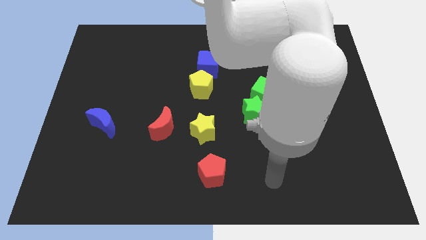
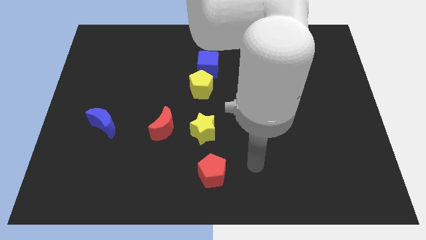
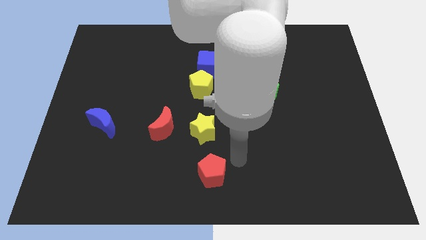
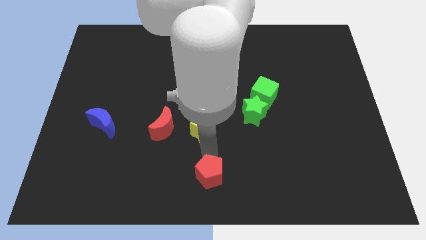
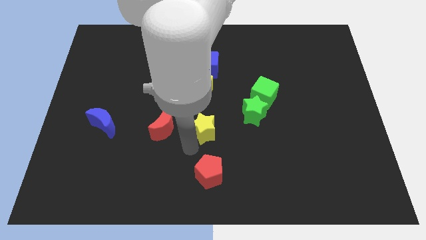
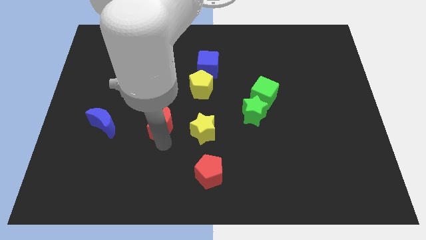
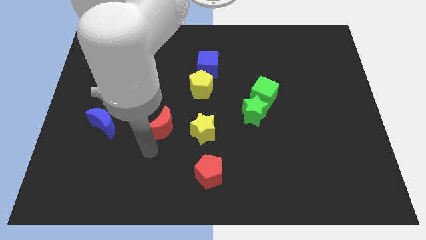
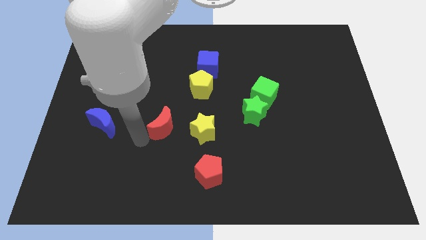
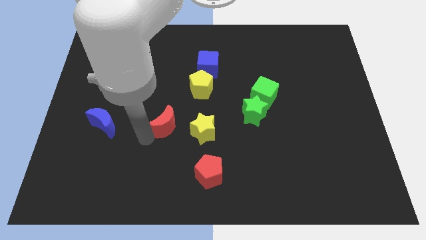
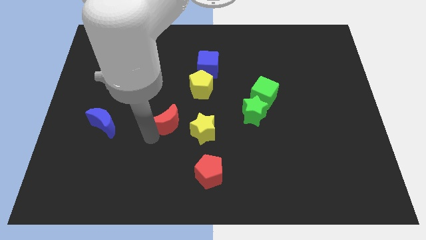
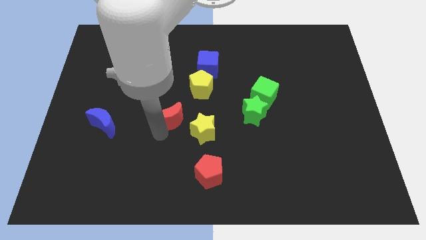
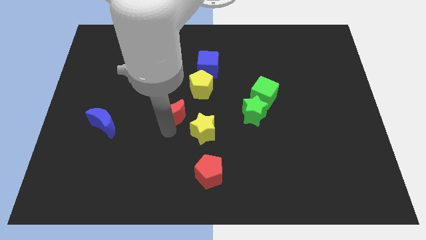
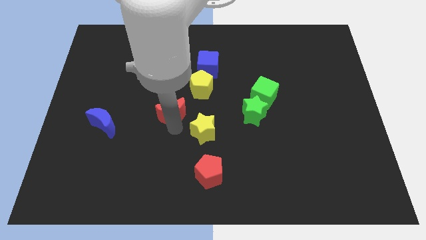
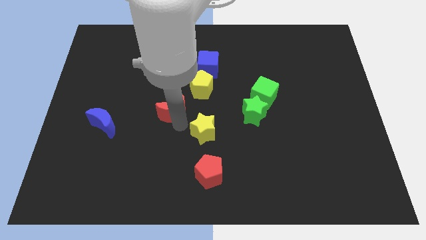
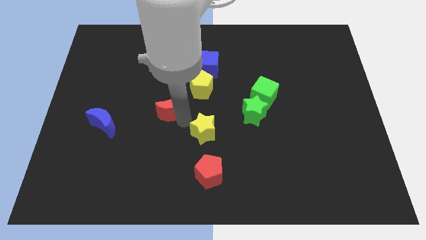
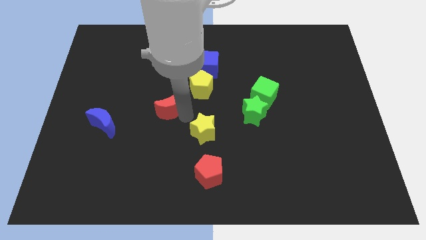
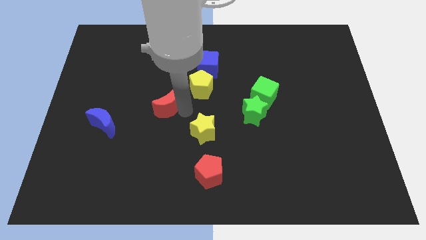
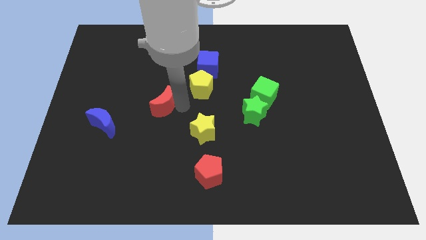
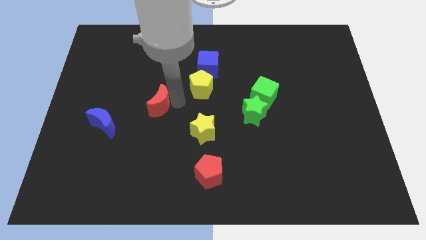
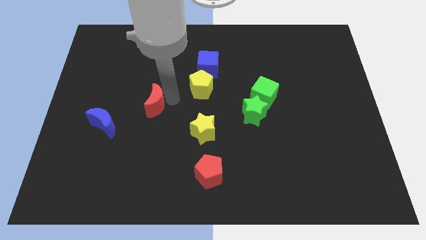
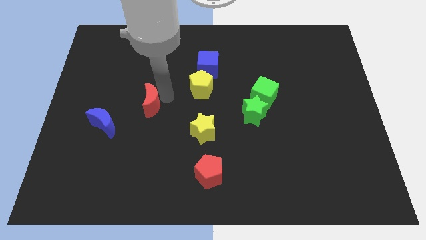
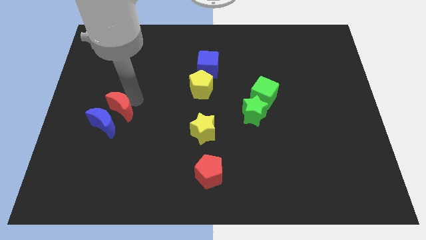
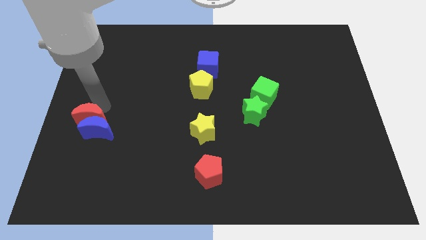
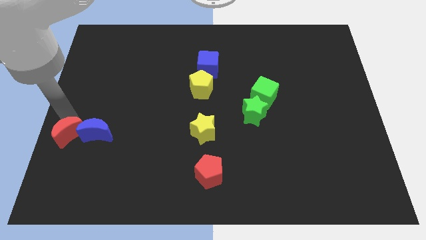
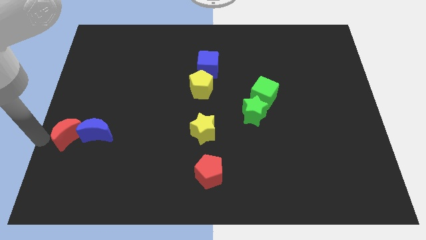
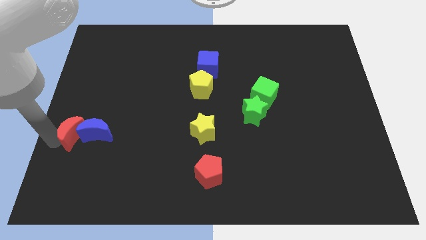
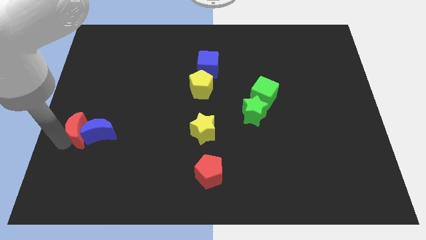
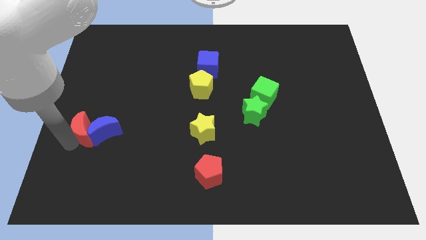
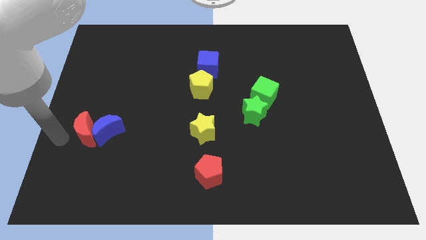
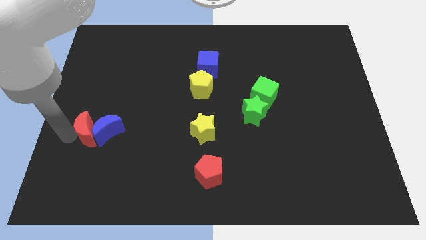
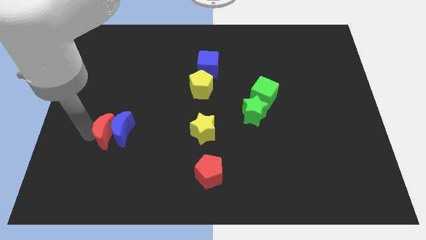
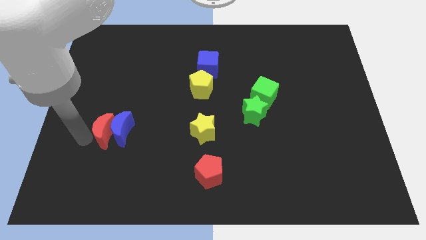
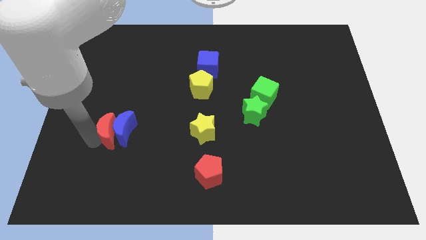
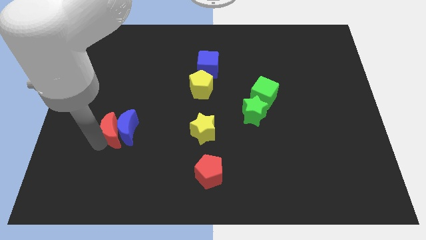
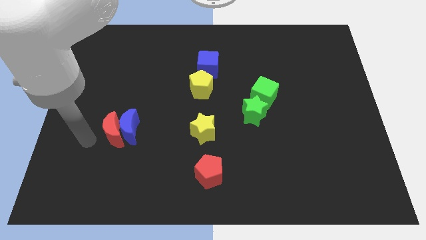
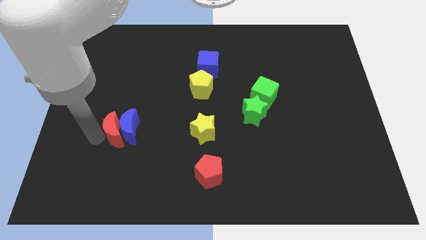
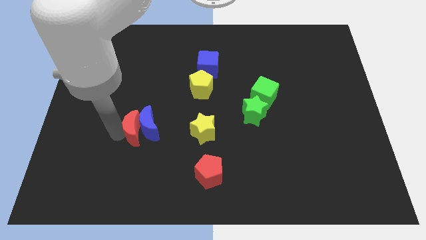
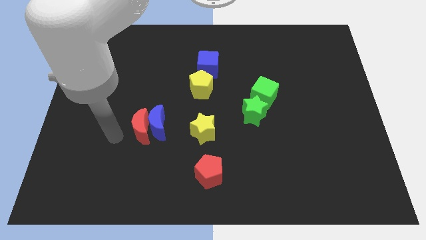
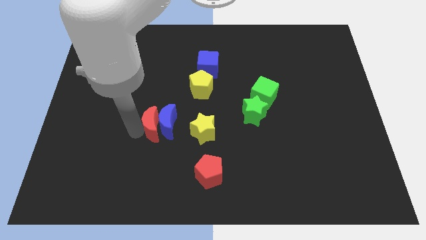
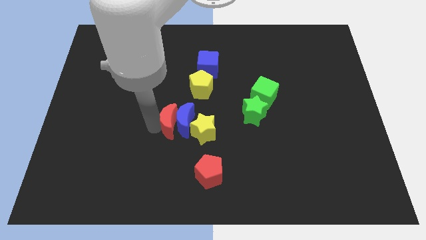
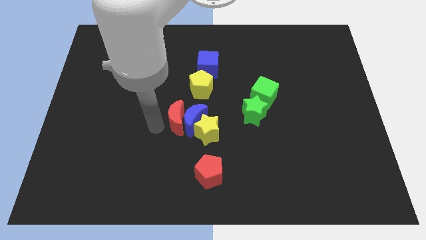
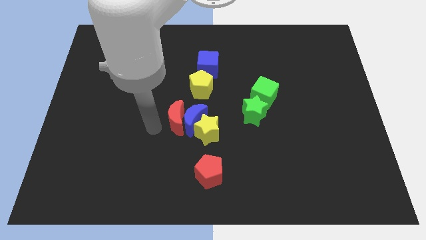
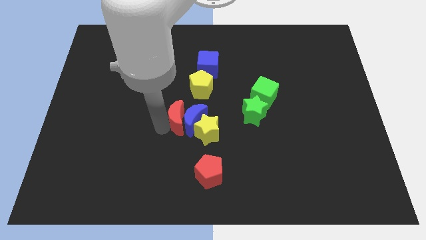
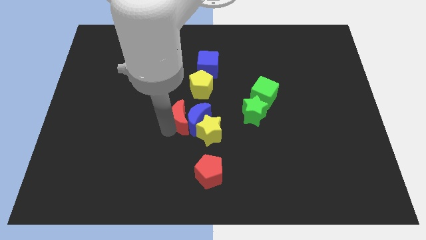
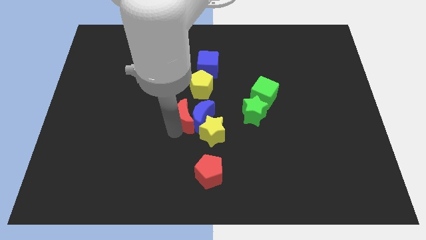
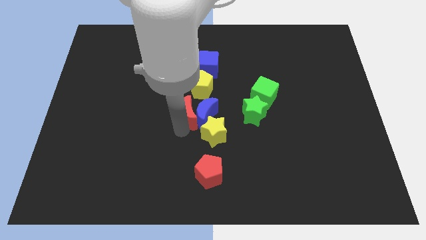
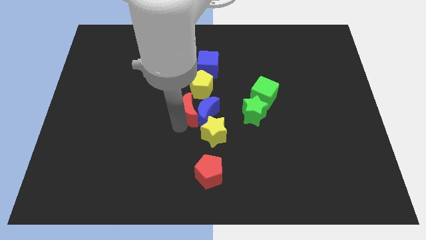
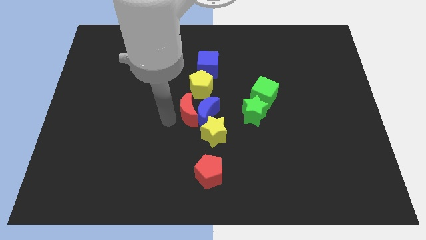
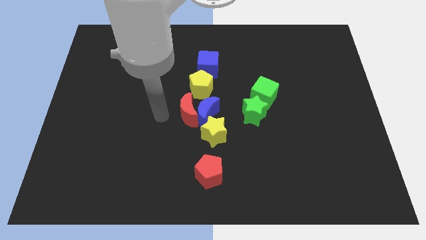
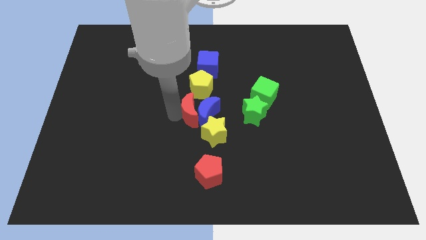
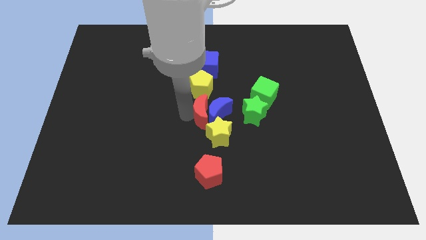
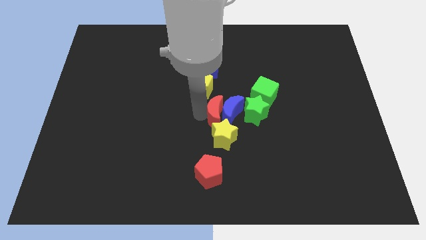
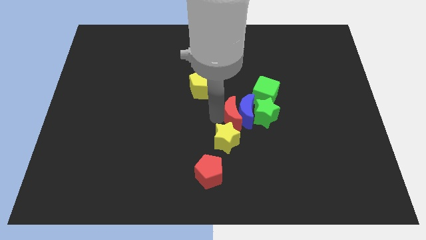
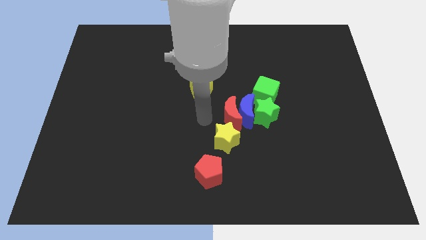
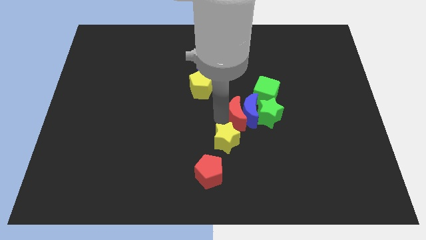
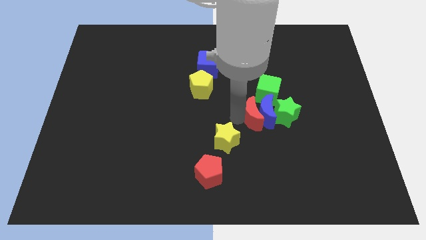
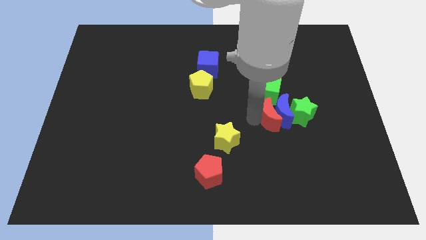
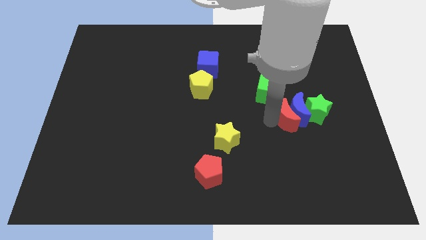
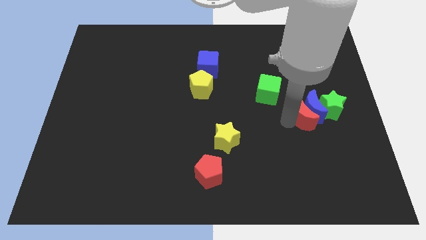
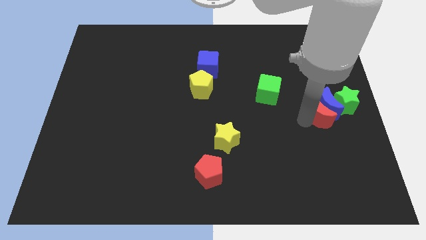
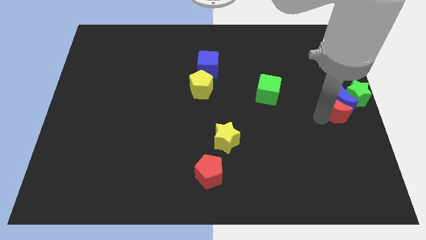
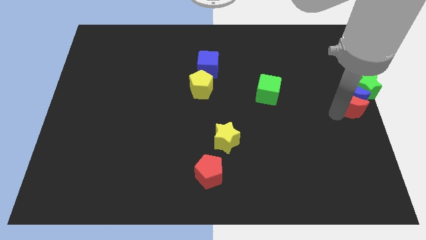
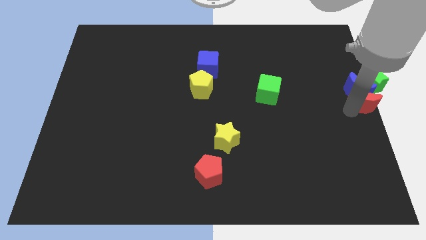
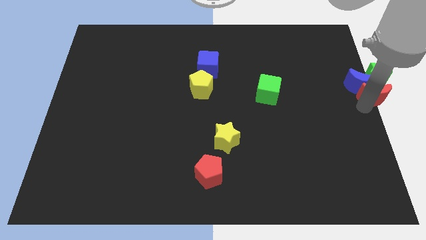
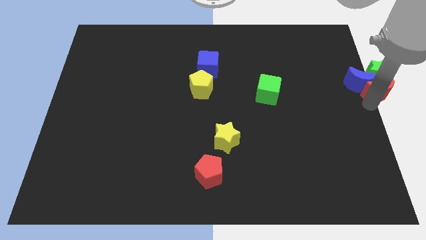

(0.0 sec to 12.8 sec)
slide the red moon towards the green star

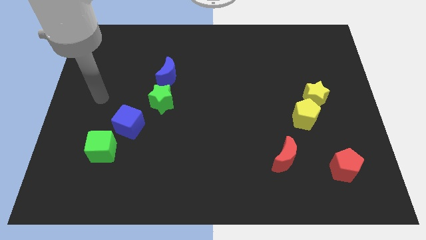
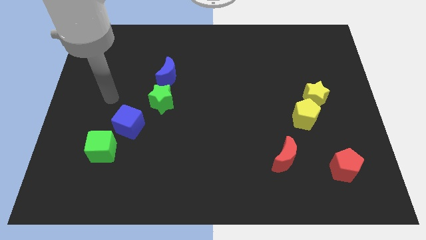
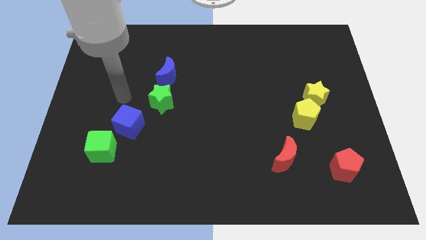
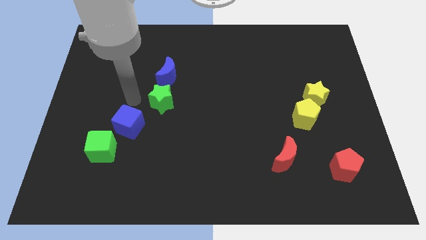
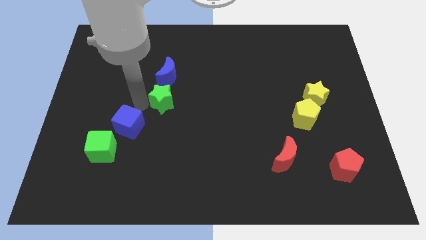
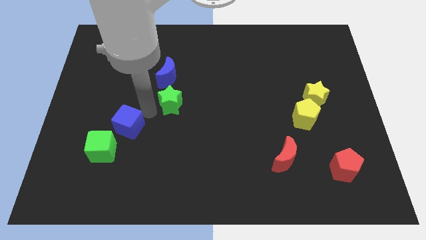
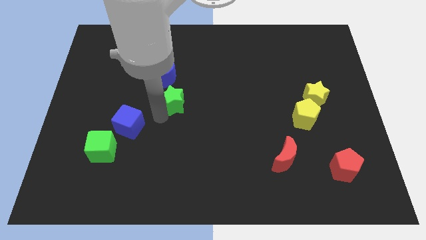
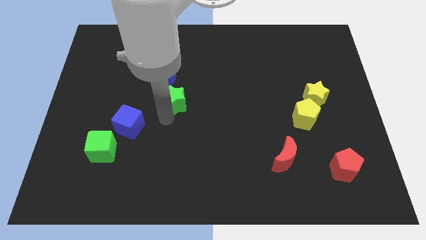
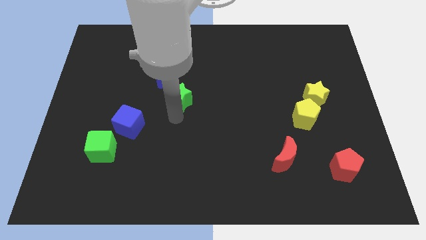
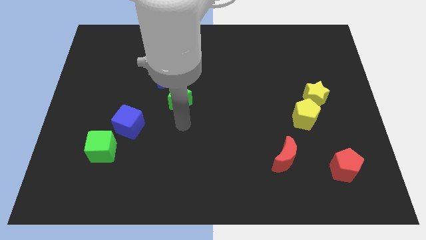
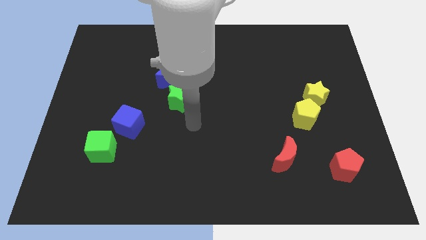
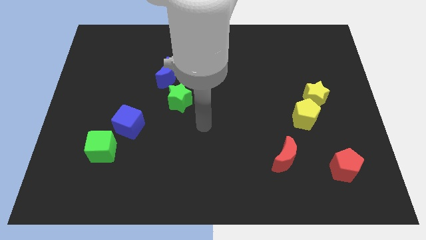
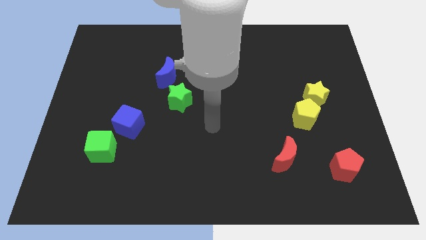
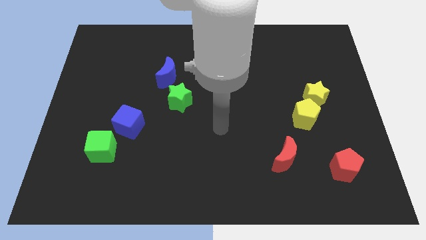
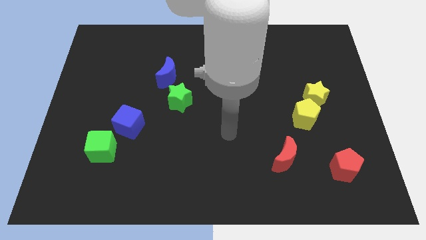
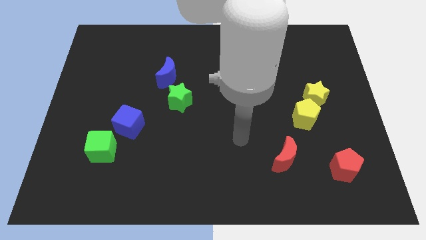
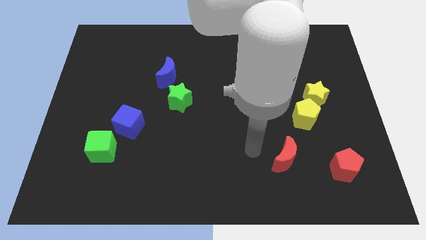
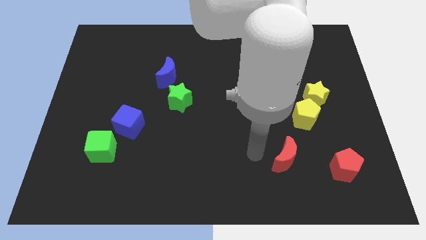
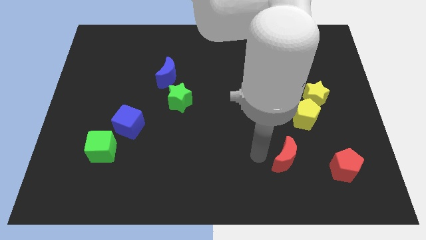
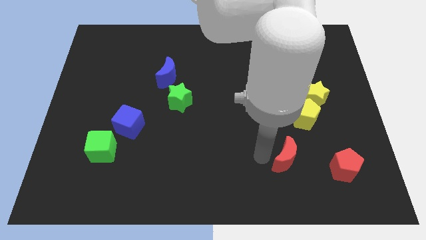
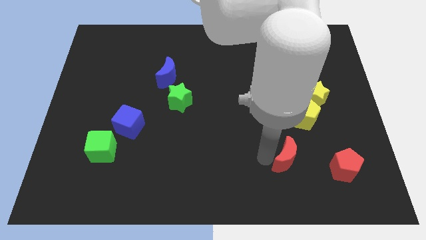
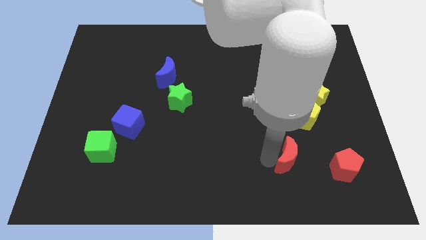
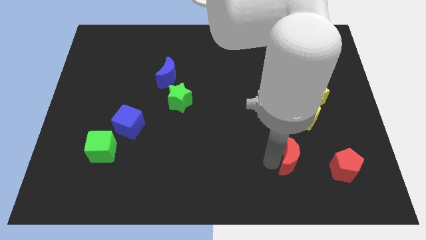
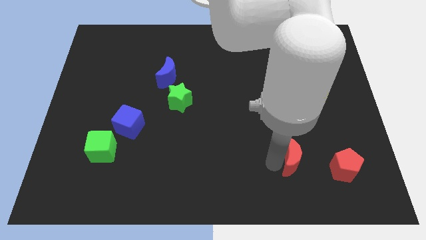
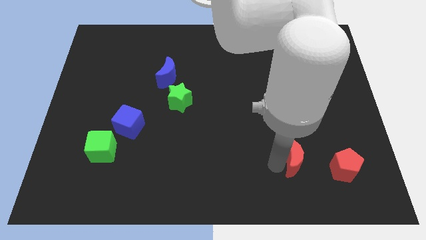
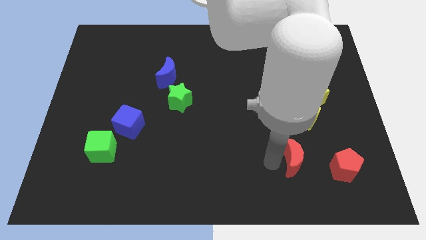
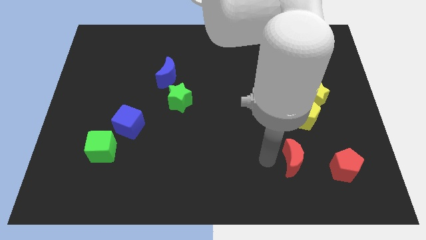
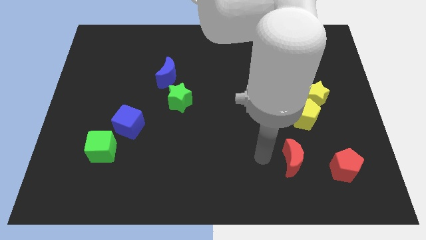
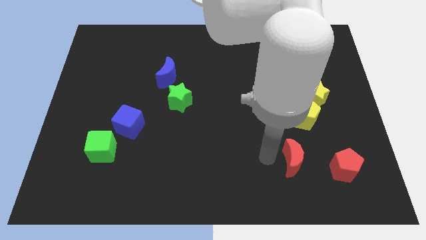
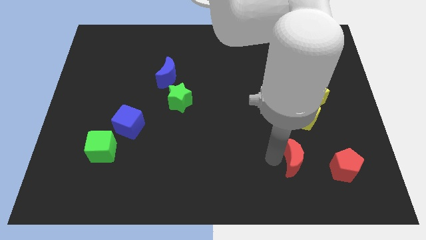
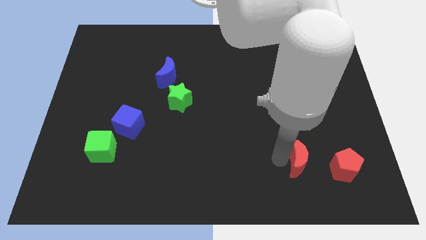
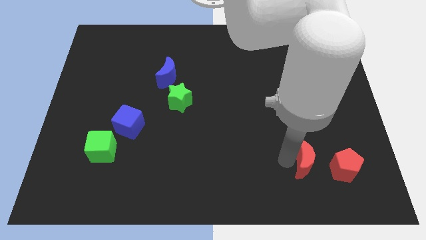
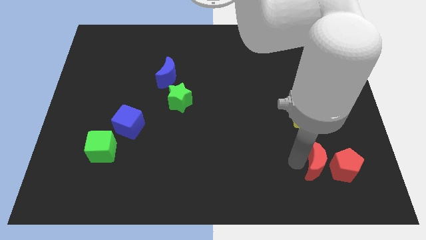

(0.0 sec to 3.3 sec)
put the red moon close to the red pentagon
